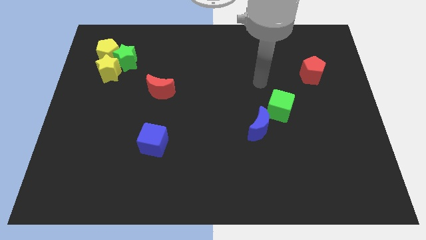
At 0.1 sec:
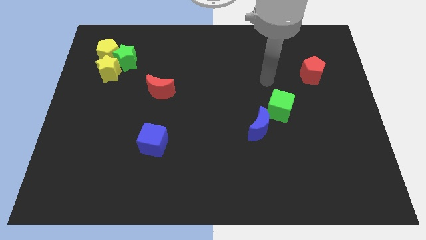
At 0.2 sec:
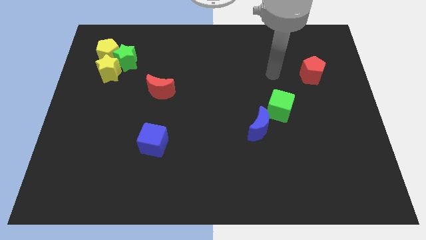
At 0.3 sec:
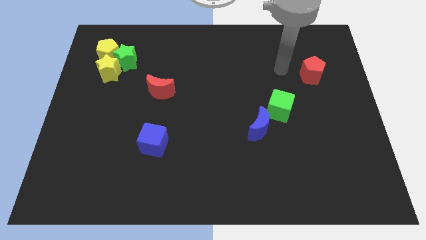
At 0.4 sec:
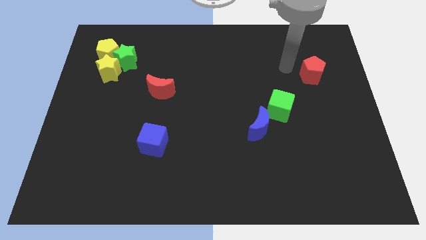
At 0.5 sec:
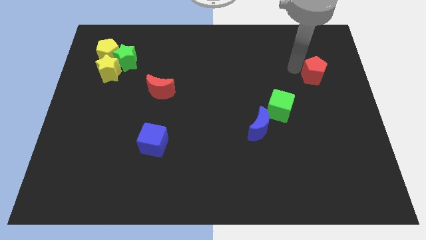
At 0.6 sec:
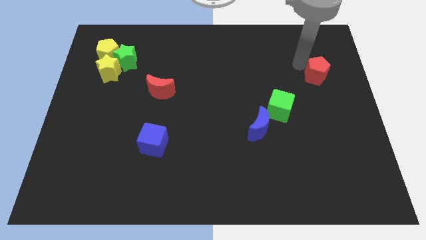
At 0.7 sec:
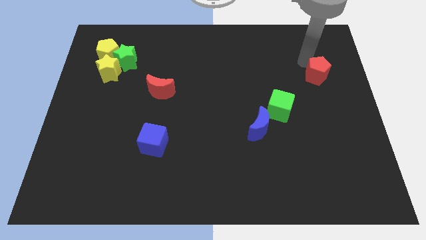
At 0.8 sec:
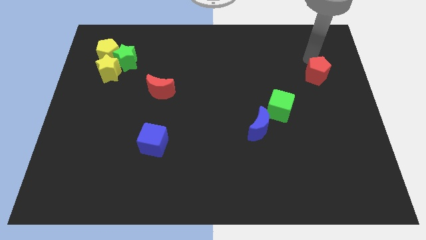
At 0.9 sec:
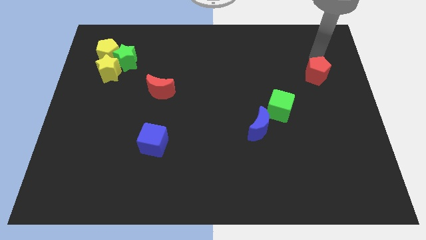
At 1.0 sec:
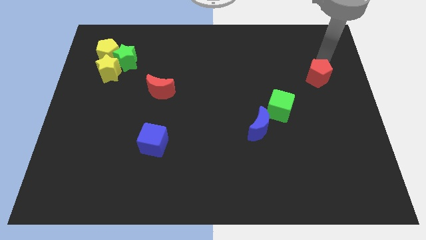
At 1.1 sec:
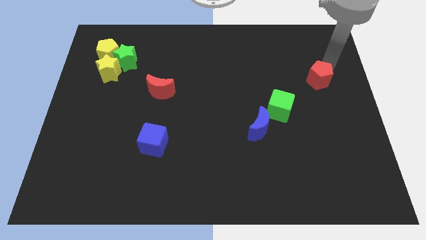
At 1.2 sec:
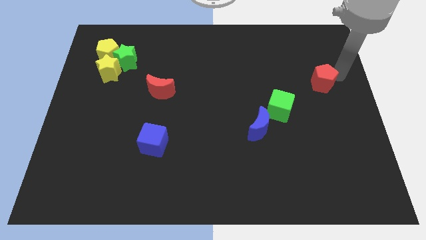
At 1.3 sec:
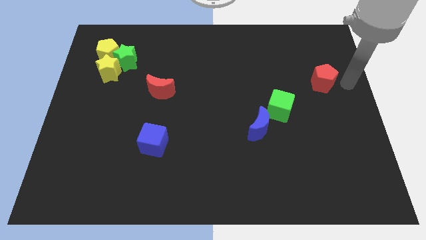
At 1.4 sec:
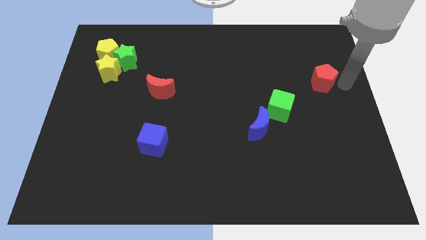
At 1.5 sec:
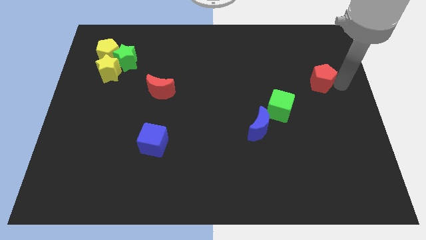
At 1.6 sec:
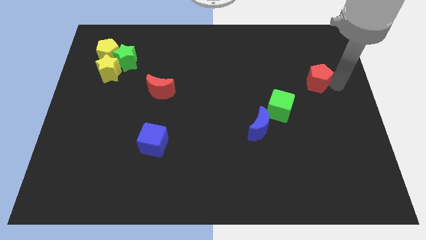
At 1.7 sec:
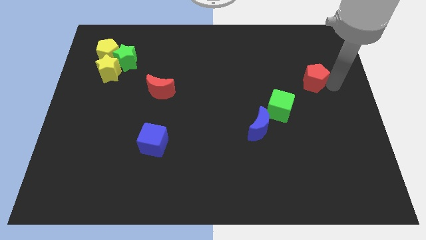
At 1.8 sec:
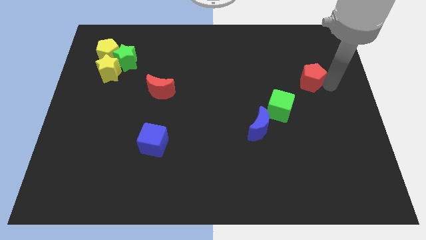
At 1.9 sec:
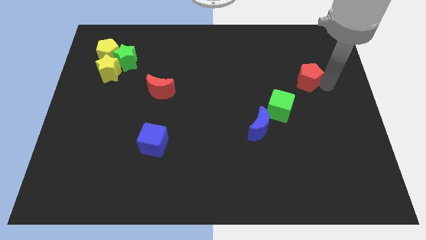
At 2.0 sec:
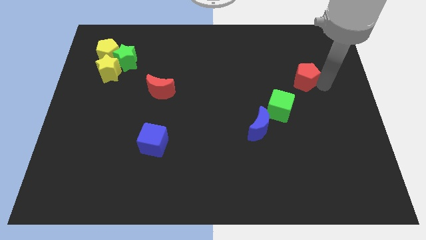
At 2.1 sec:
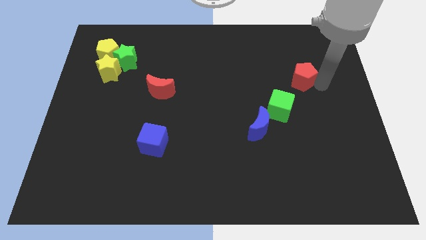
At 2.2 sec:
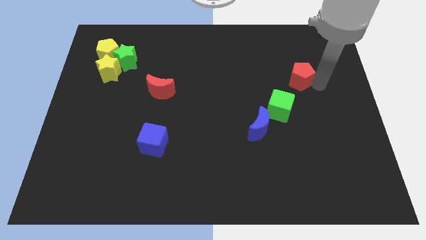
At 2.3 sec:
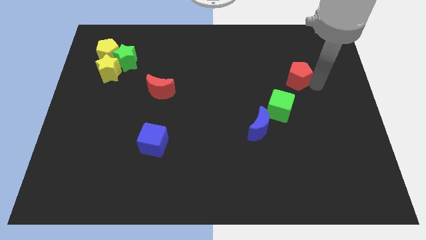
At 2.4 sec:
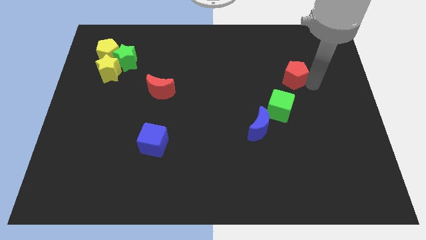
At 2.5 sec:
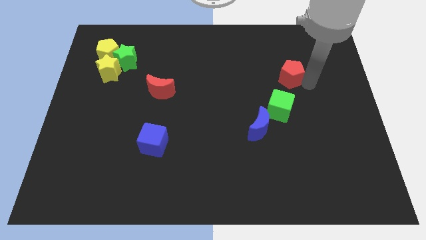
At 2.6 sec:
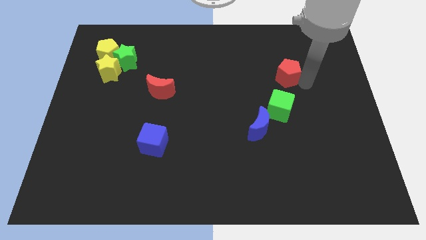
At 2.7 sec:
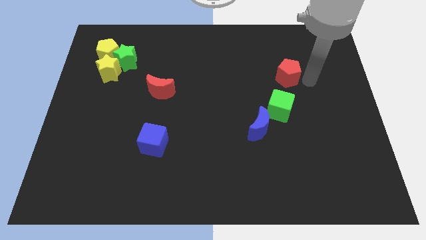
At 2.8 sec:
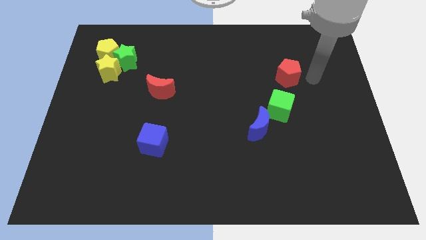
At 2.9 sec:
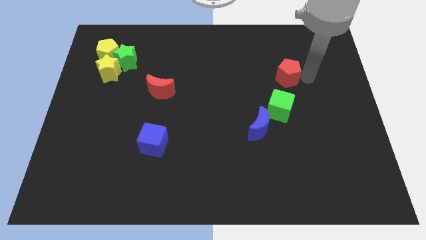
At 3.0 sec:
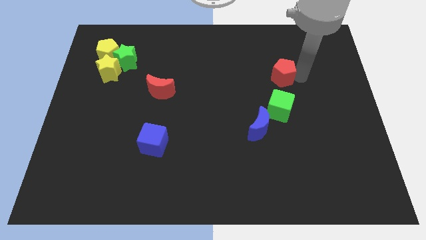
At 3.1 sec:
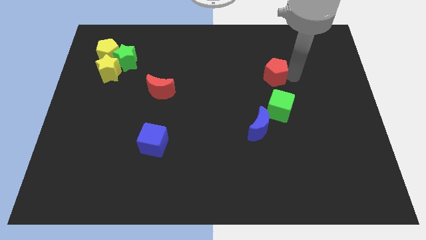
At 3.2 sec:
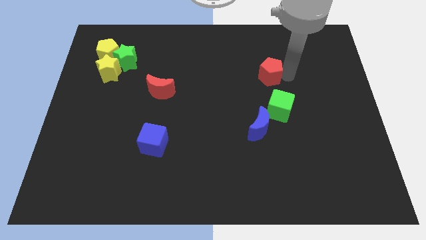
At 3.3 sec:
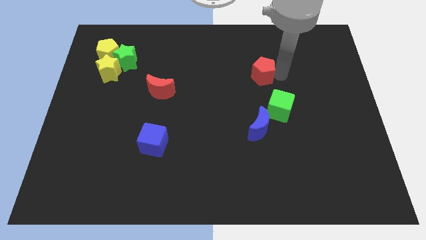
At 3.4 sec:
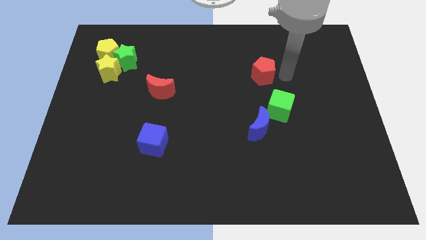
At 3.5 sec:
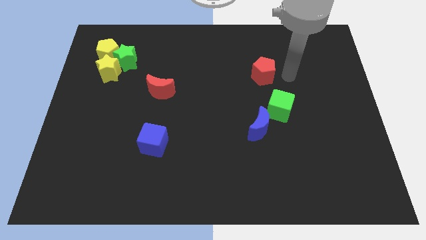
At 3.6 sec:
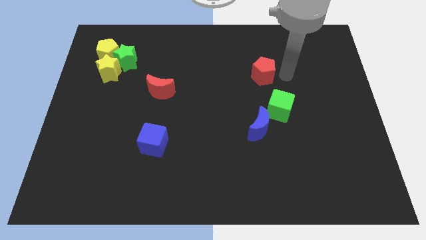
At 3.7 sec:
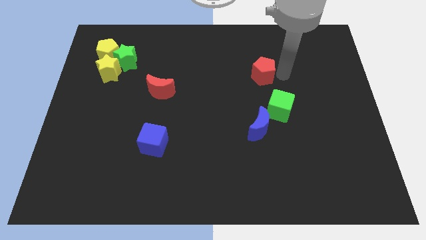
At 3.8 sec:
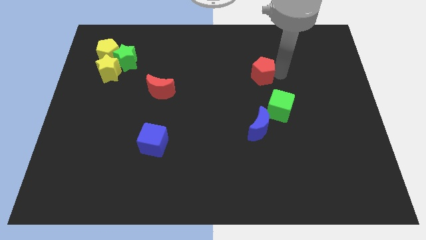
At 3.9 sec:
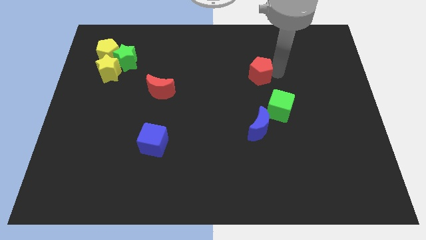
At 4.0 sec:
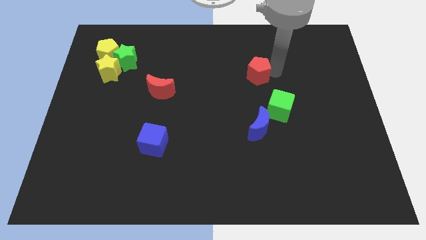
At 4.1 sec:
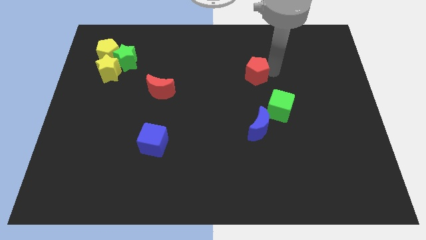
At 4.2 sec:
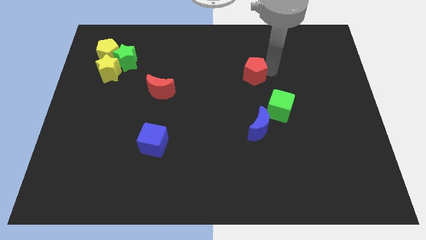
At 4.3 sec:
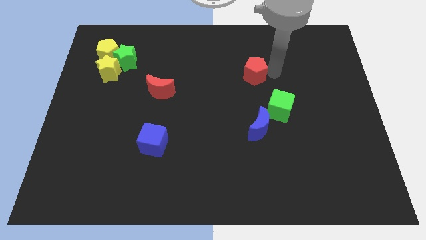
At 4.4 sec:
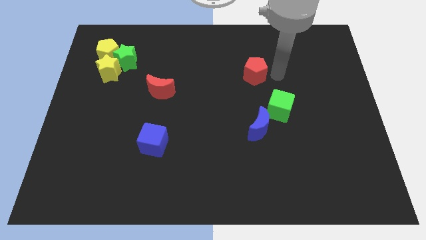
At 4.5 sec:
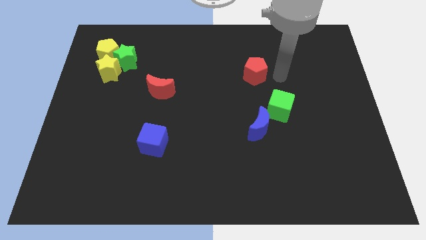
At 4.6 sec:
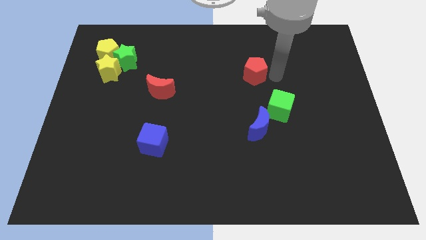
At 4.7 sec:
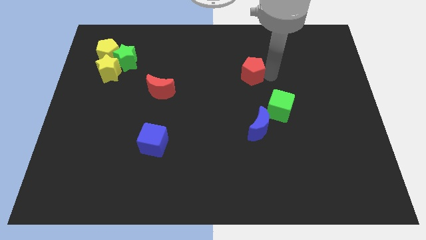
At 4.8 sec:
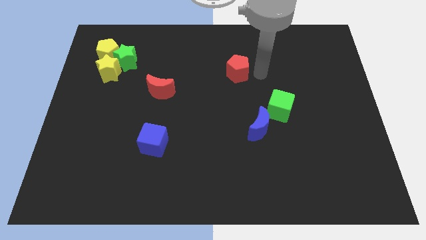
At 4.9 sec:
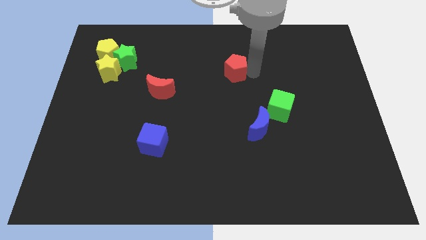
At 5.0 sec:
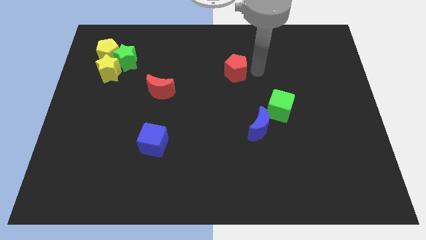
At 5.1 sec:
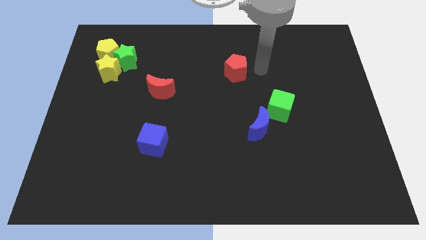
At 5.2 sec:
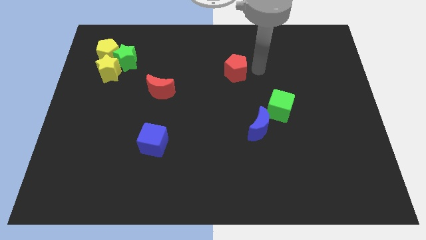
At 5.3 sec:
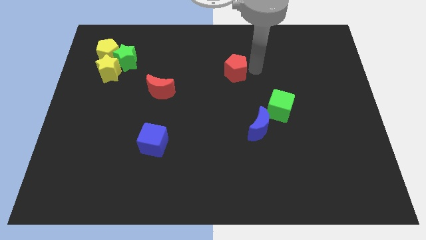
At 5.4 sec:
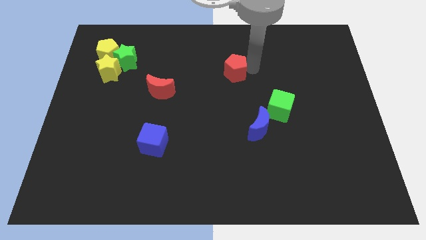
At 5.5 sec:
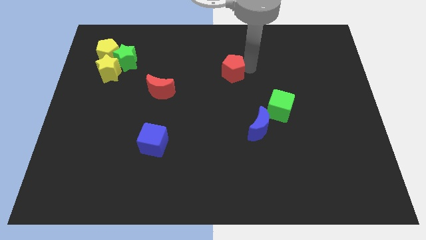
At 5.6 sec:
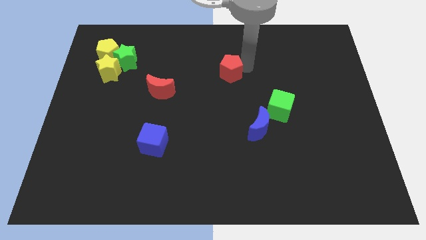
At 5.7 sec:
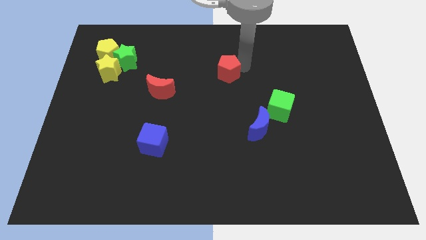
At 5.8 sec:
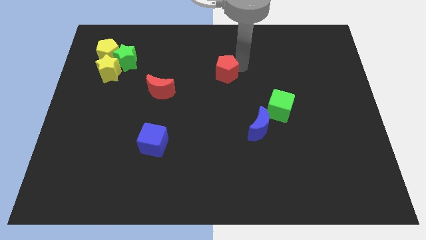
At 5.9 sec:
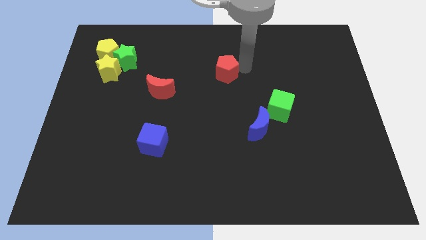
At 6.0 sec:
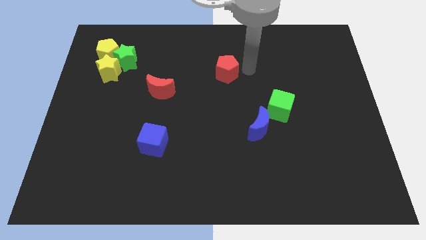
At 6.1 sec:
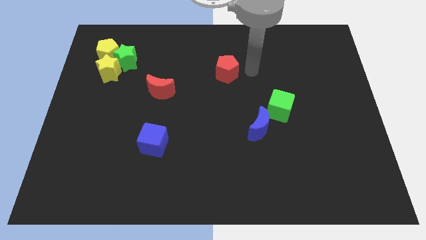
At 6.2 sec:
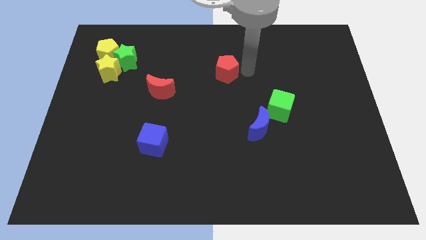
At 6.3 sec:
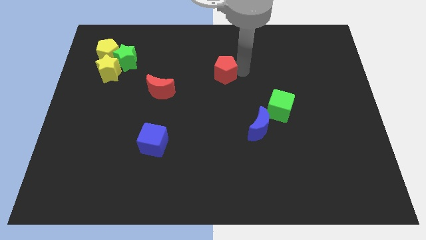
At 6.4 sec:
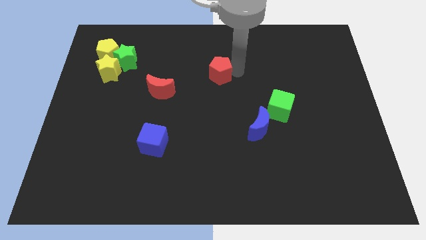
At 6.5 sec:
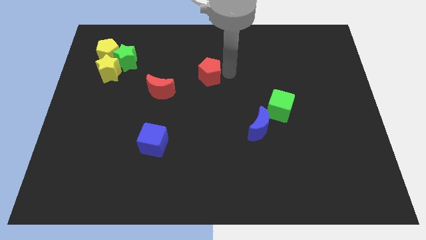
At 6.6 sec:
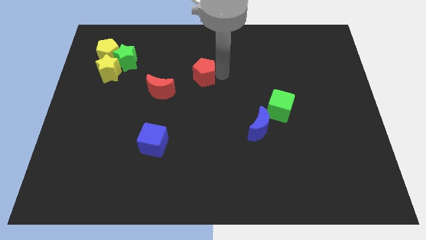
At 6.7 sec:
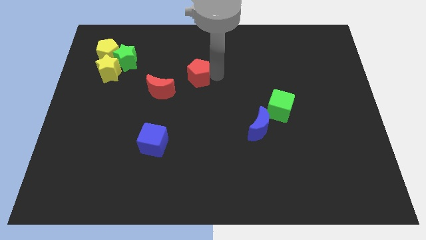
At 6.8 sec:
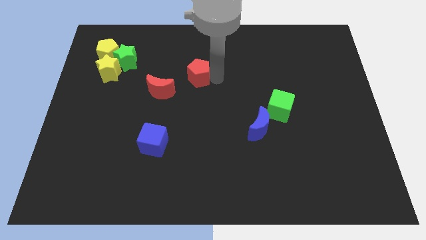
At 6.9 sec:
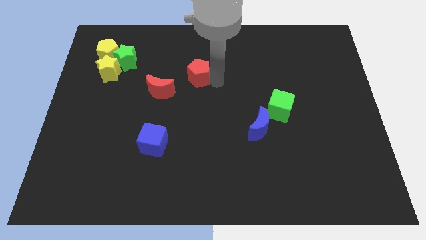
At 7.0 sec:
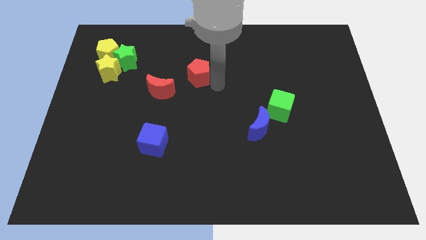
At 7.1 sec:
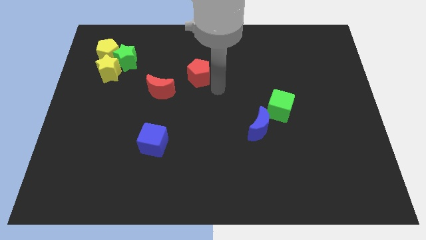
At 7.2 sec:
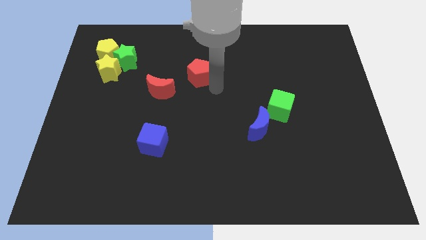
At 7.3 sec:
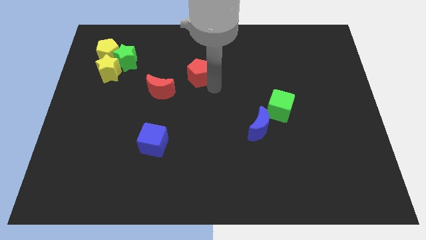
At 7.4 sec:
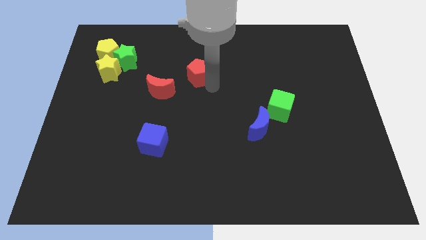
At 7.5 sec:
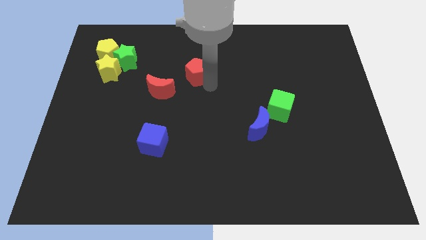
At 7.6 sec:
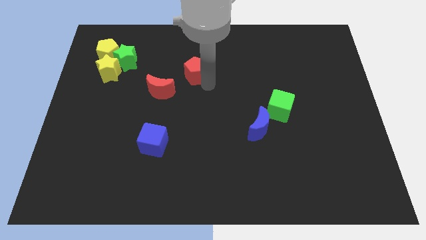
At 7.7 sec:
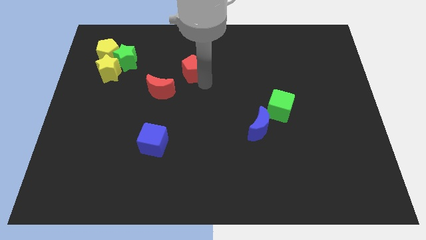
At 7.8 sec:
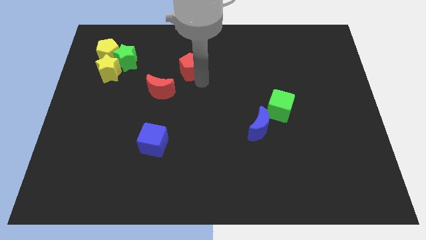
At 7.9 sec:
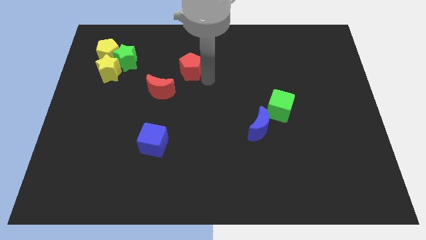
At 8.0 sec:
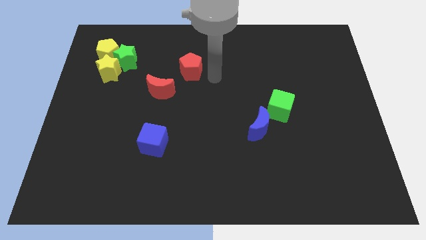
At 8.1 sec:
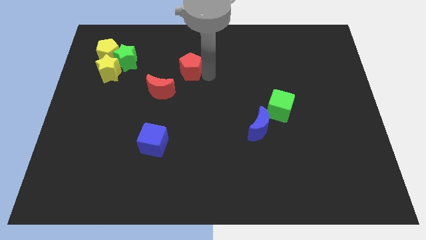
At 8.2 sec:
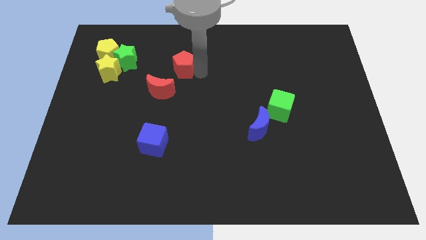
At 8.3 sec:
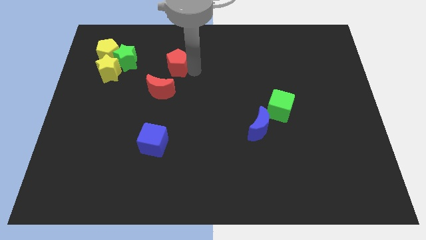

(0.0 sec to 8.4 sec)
move the red pentagon to the top side of the red moon
